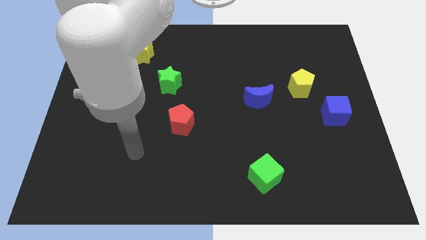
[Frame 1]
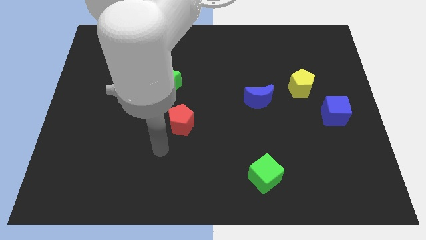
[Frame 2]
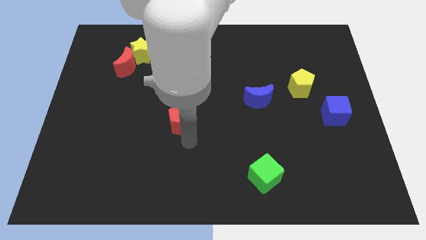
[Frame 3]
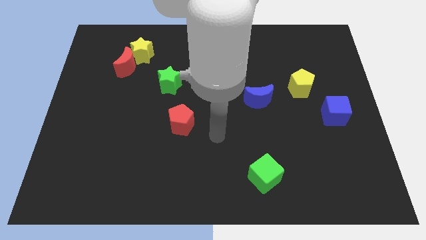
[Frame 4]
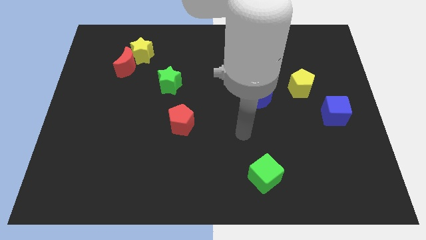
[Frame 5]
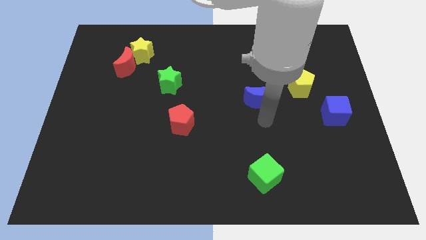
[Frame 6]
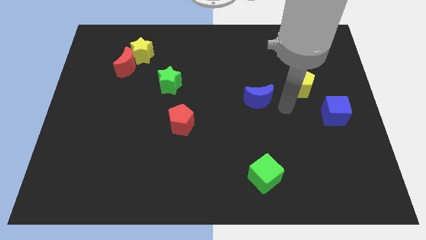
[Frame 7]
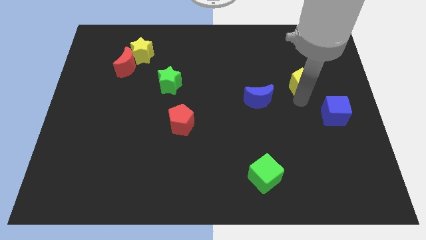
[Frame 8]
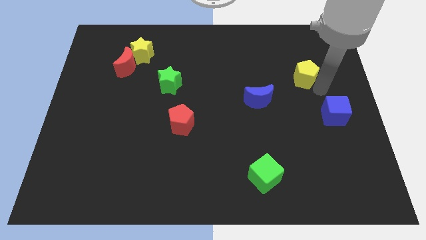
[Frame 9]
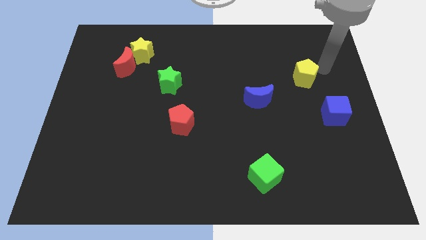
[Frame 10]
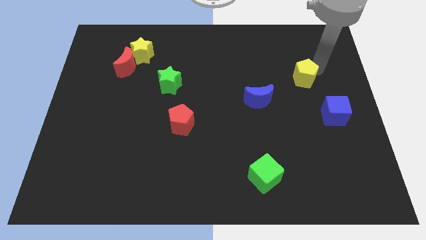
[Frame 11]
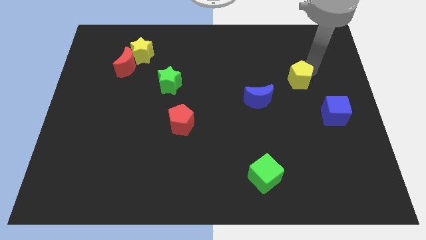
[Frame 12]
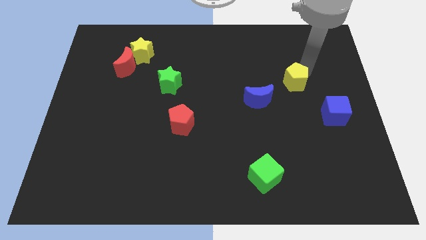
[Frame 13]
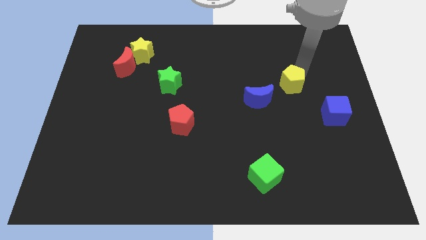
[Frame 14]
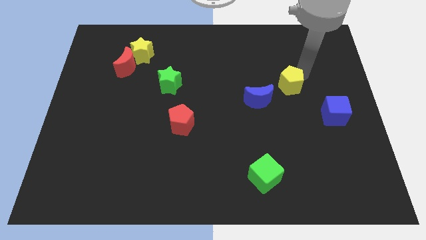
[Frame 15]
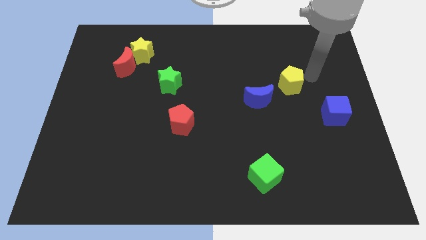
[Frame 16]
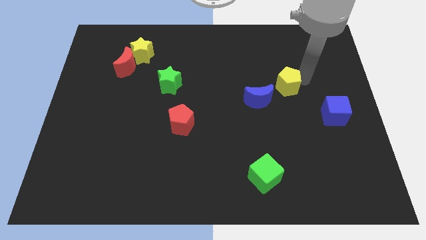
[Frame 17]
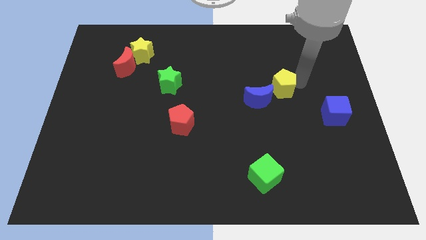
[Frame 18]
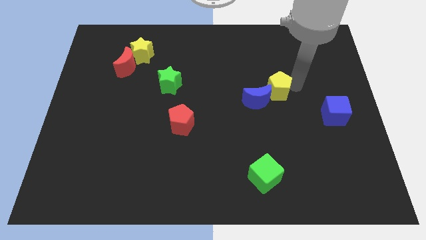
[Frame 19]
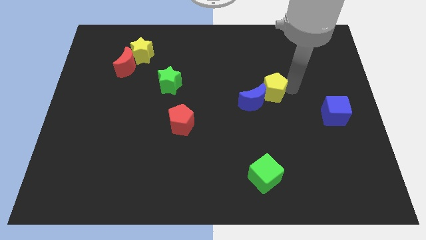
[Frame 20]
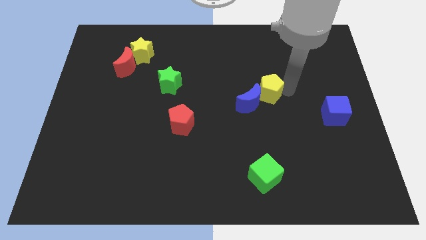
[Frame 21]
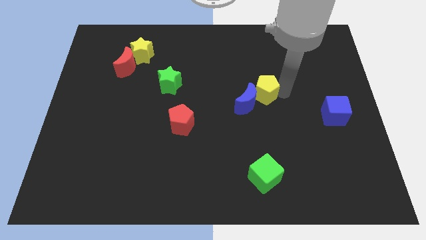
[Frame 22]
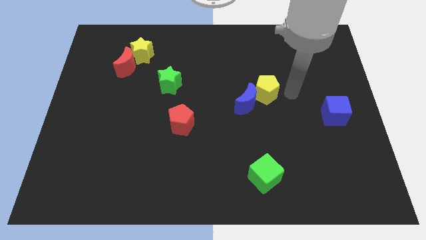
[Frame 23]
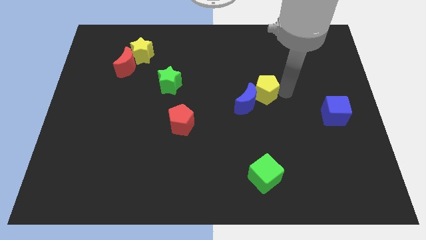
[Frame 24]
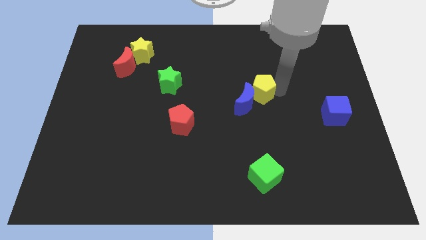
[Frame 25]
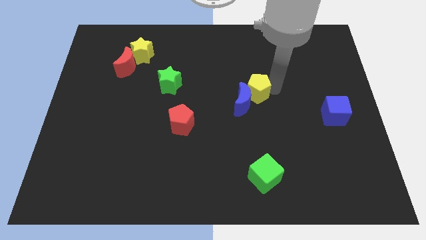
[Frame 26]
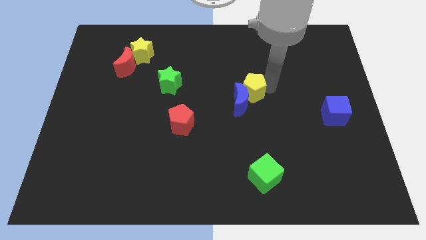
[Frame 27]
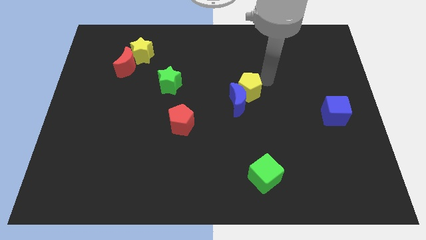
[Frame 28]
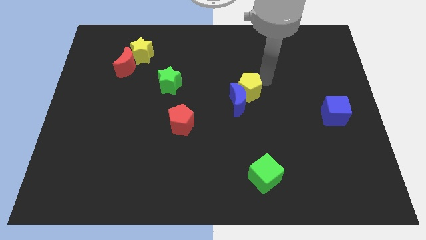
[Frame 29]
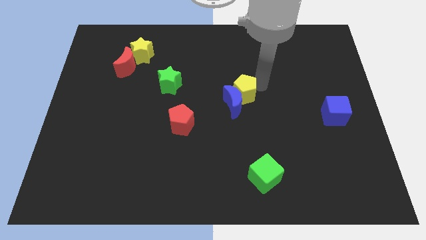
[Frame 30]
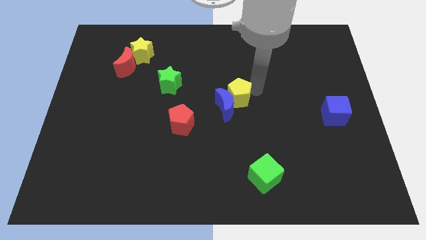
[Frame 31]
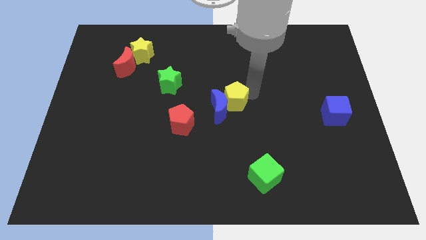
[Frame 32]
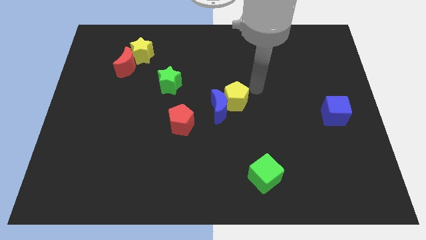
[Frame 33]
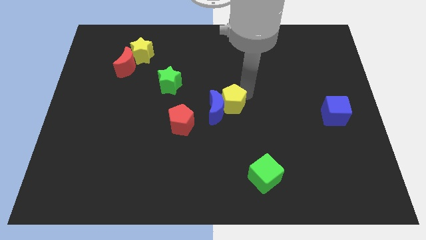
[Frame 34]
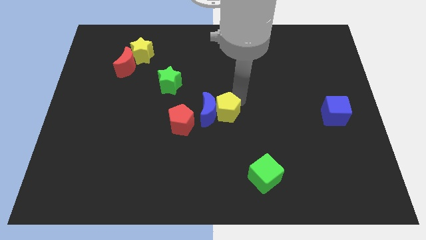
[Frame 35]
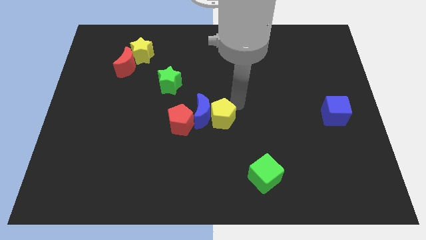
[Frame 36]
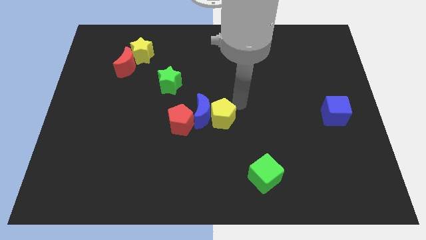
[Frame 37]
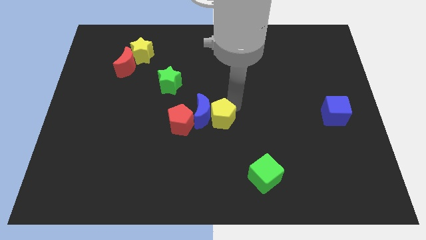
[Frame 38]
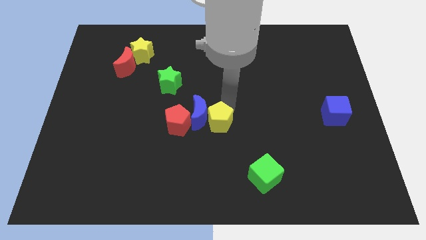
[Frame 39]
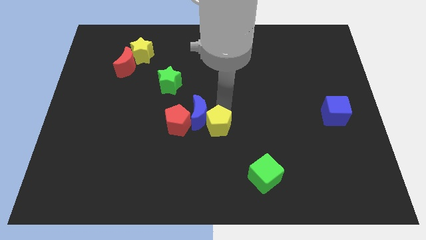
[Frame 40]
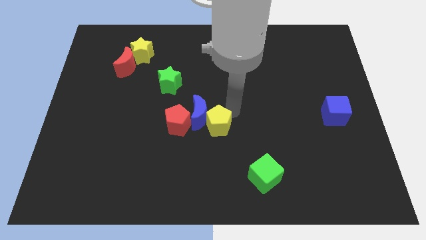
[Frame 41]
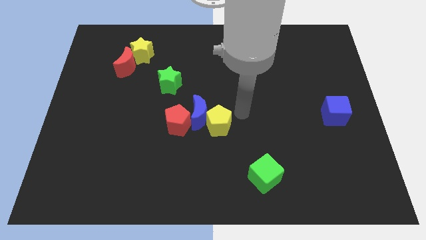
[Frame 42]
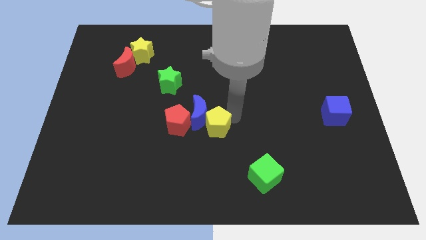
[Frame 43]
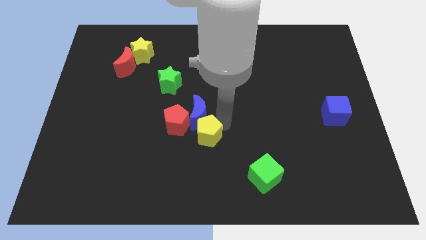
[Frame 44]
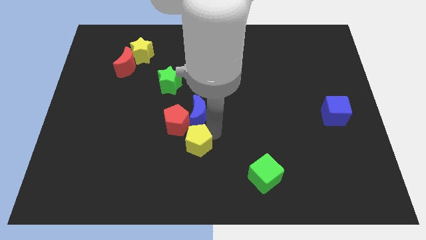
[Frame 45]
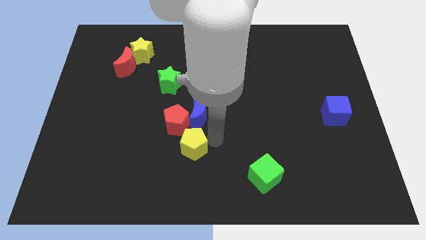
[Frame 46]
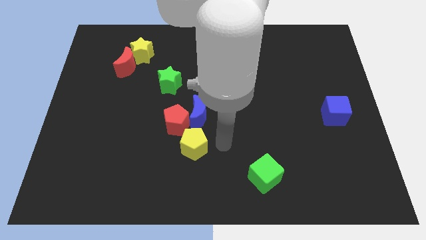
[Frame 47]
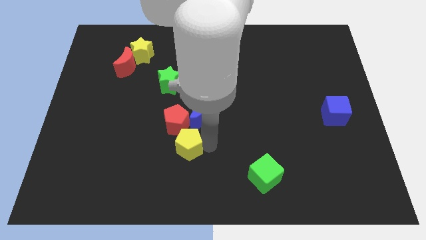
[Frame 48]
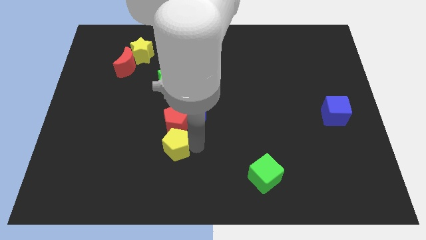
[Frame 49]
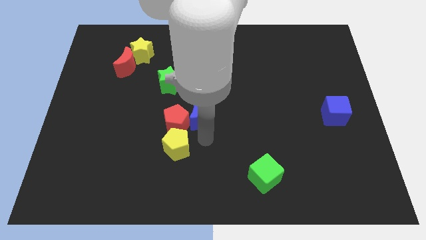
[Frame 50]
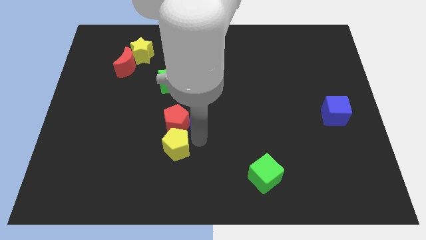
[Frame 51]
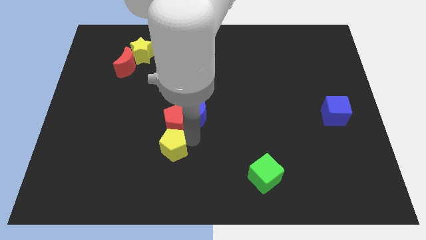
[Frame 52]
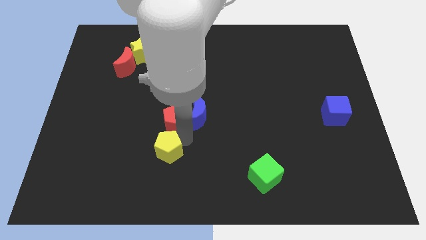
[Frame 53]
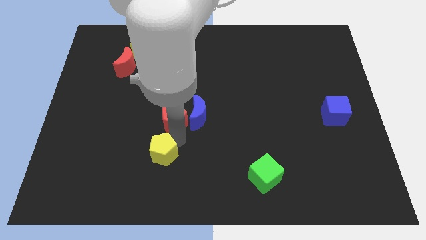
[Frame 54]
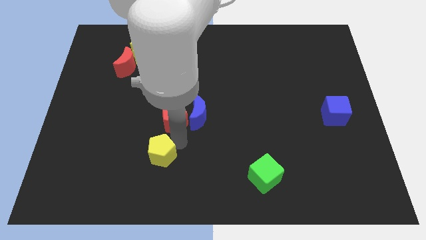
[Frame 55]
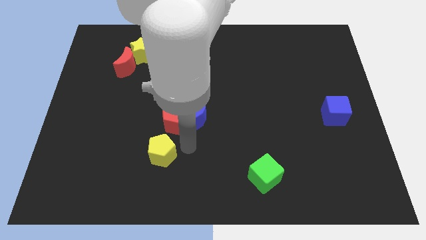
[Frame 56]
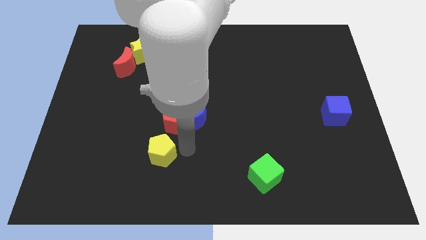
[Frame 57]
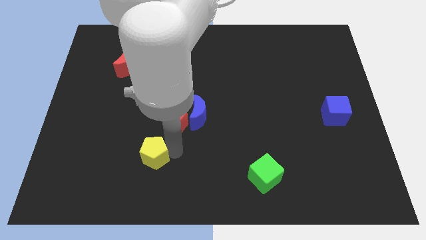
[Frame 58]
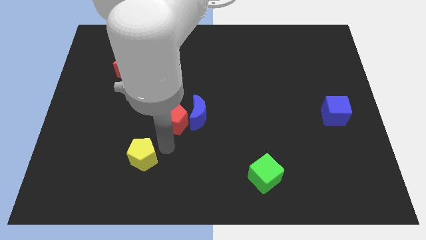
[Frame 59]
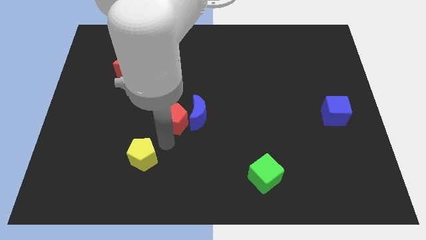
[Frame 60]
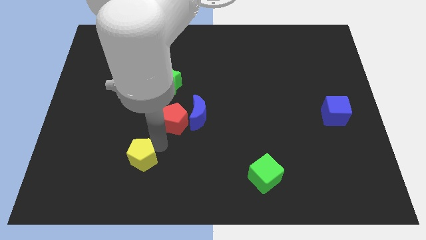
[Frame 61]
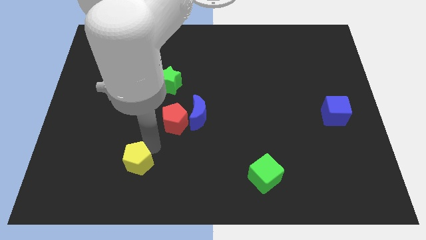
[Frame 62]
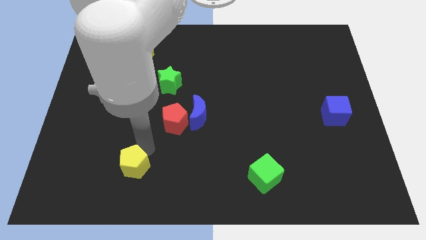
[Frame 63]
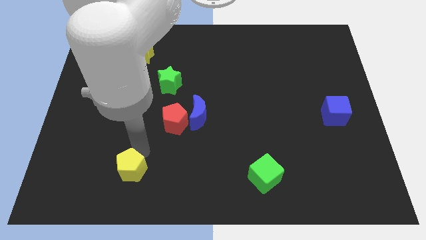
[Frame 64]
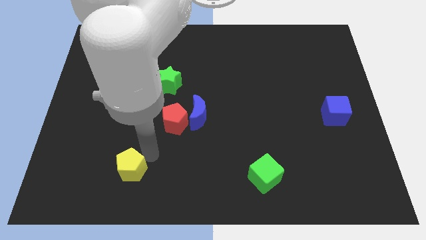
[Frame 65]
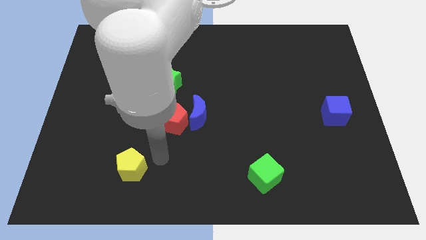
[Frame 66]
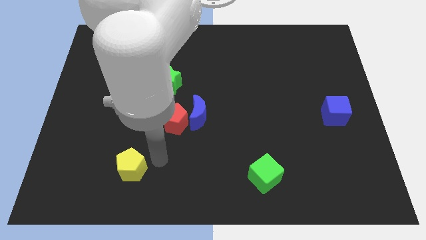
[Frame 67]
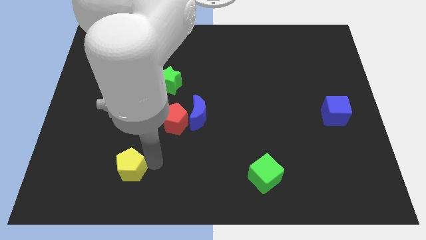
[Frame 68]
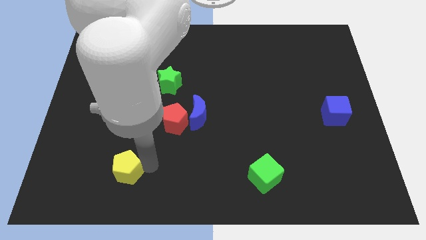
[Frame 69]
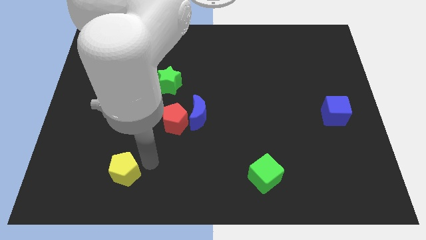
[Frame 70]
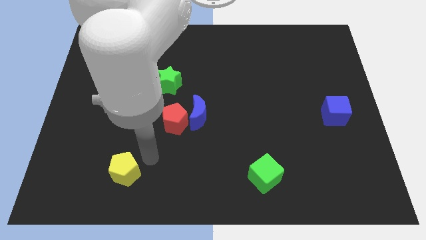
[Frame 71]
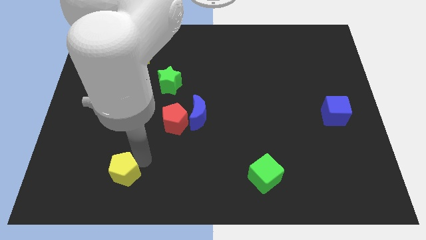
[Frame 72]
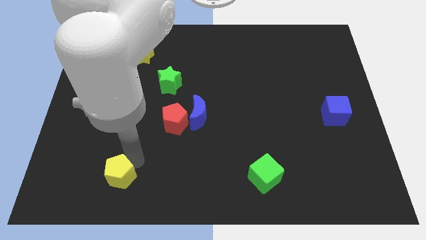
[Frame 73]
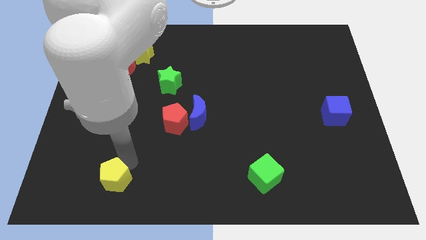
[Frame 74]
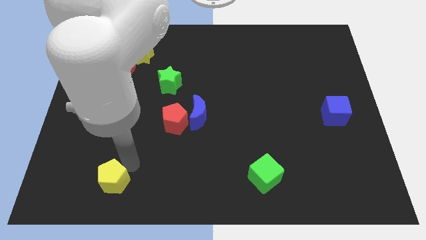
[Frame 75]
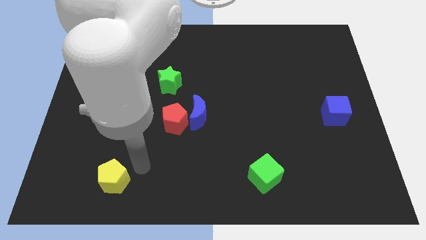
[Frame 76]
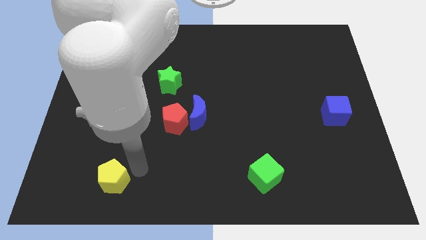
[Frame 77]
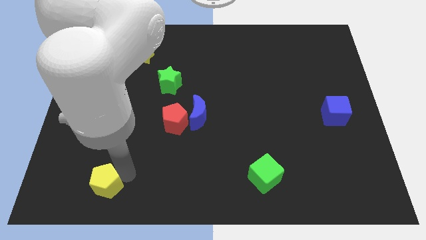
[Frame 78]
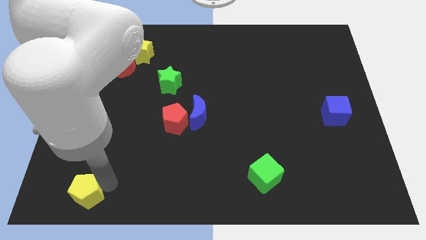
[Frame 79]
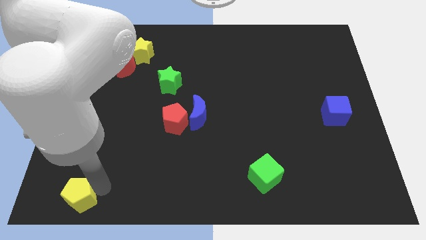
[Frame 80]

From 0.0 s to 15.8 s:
move the yellow pentagon to the bottom left of the board
